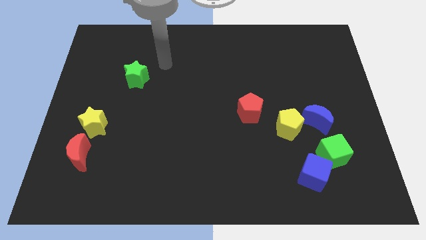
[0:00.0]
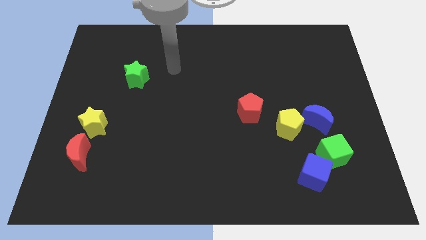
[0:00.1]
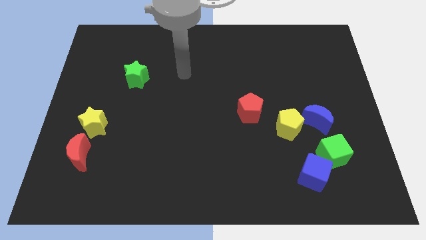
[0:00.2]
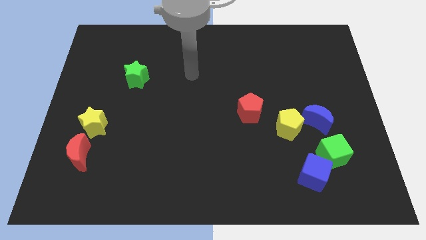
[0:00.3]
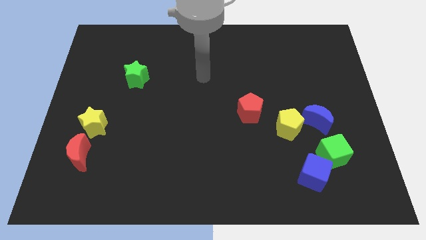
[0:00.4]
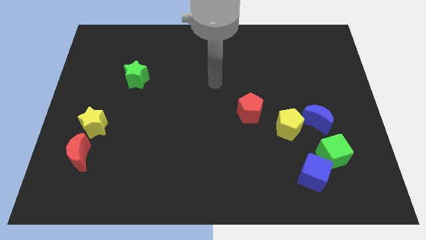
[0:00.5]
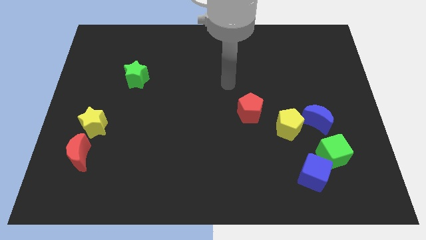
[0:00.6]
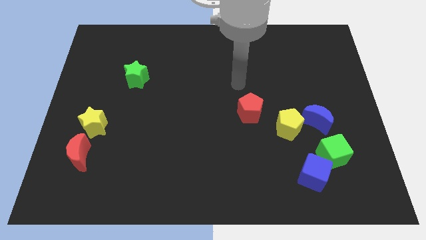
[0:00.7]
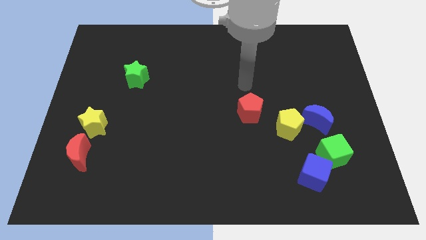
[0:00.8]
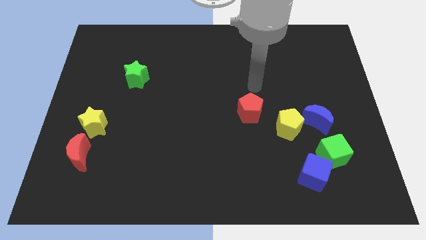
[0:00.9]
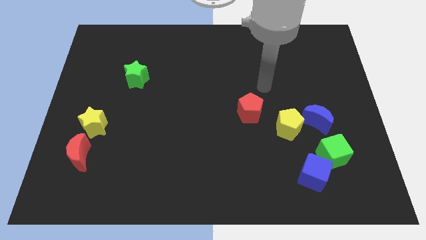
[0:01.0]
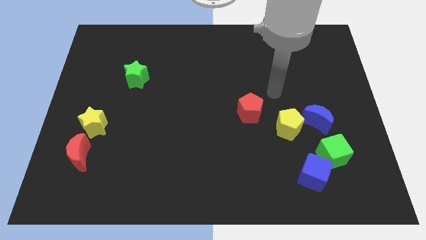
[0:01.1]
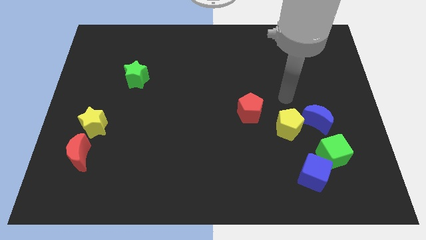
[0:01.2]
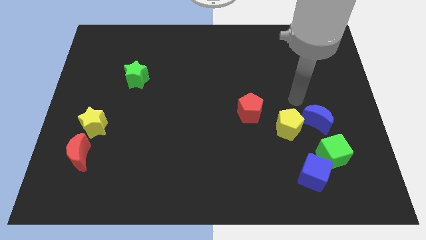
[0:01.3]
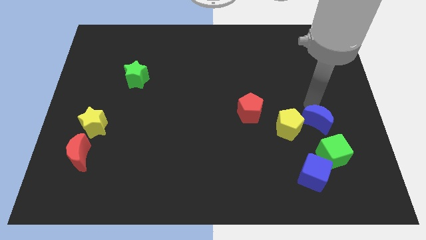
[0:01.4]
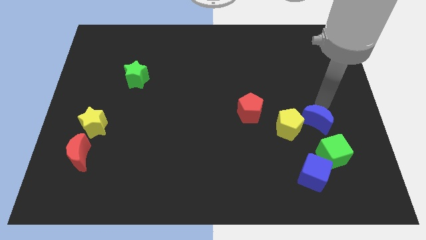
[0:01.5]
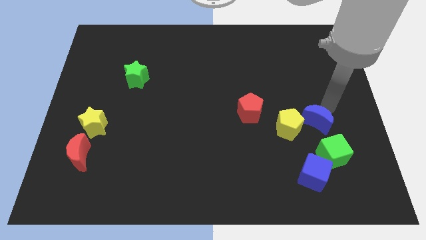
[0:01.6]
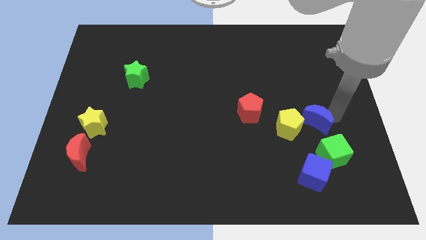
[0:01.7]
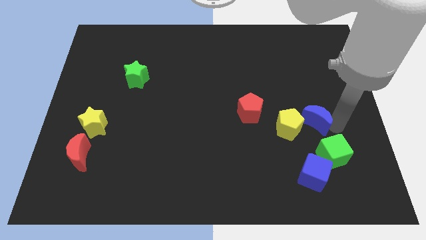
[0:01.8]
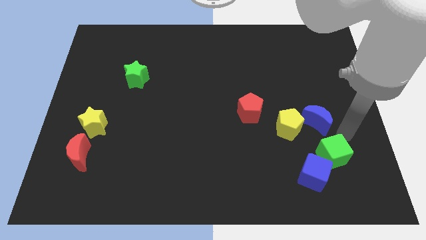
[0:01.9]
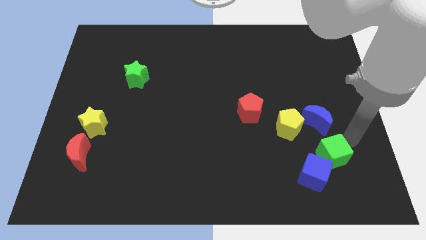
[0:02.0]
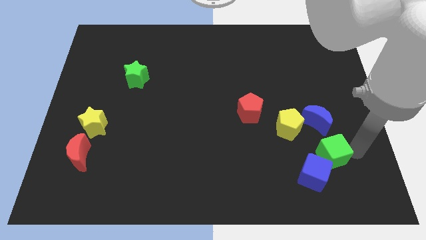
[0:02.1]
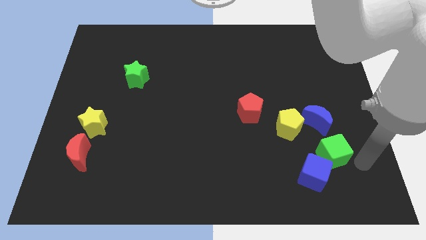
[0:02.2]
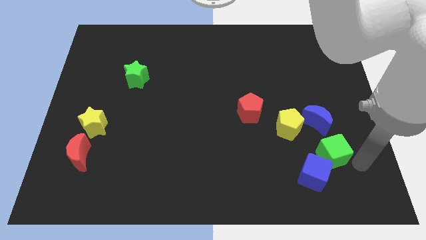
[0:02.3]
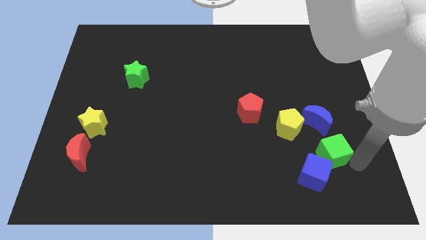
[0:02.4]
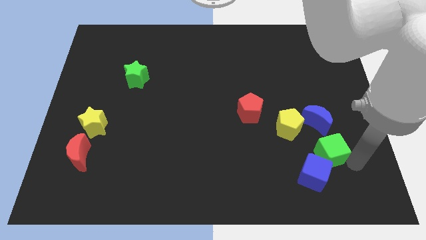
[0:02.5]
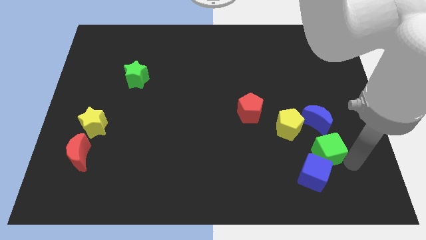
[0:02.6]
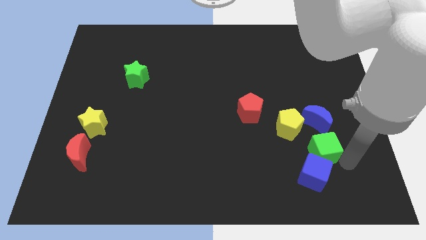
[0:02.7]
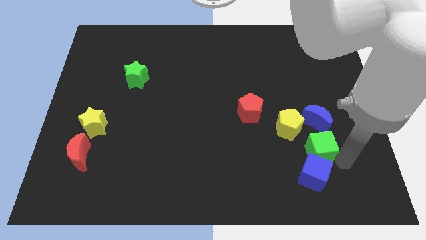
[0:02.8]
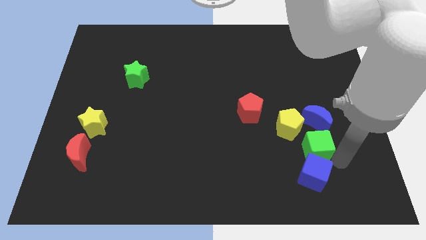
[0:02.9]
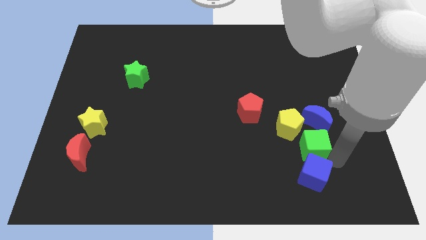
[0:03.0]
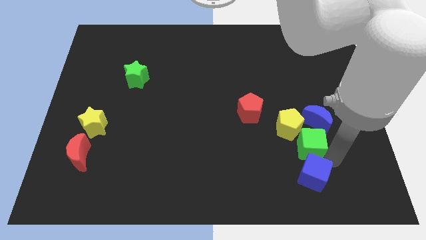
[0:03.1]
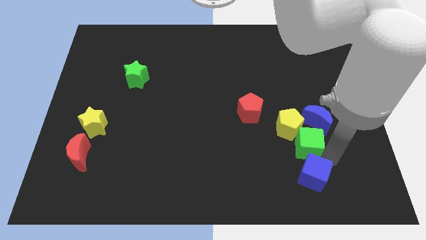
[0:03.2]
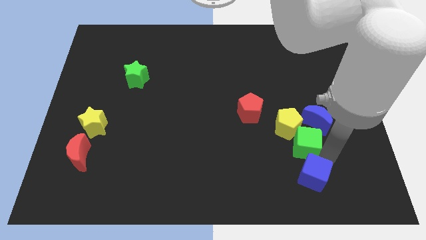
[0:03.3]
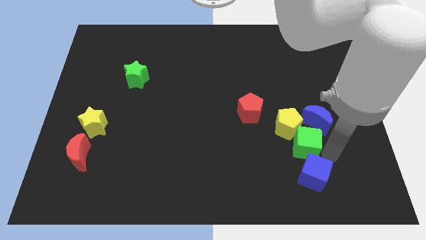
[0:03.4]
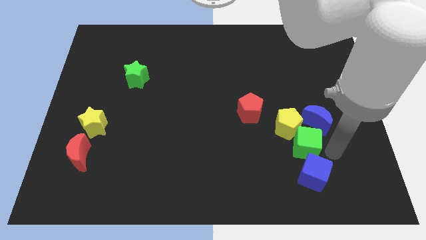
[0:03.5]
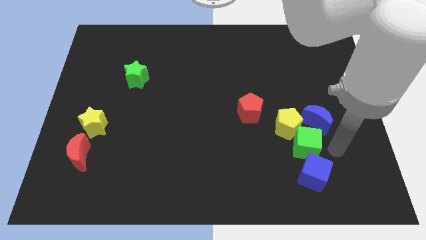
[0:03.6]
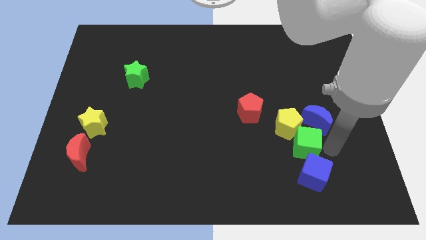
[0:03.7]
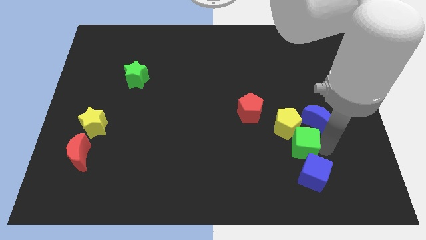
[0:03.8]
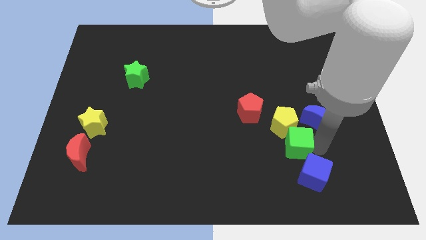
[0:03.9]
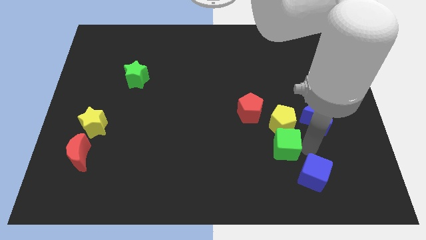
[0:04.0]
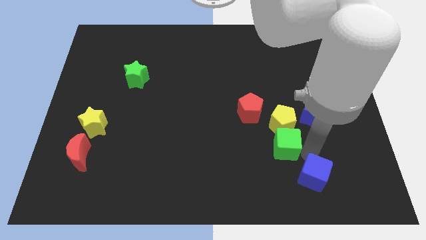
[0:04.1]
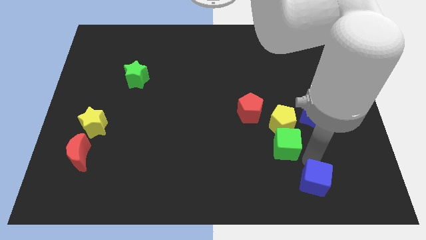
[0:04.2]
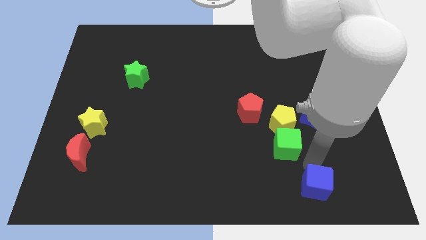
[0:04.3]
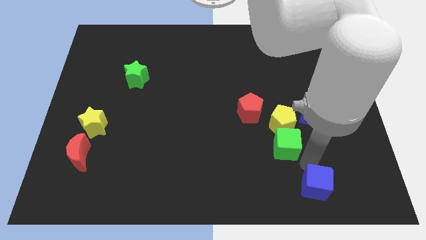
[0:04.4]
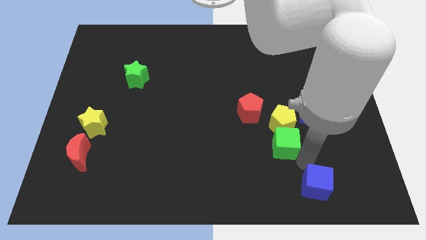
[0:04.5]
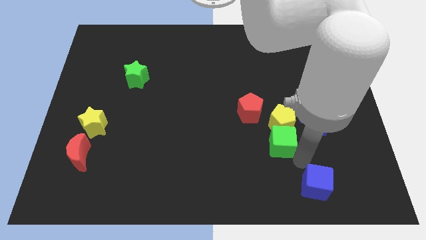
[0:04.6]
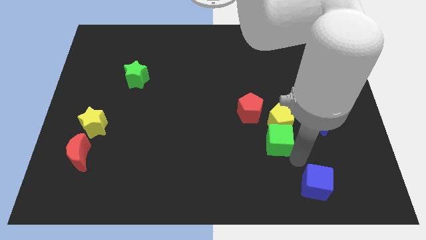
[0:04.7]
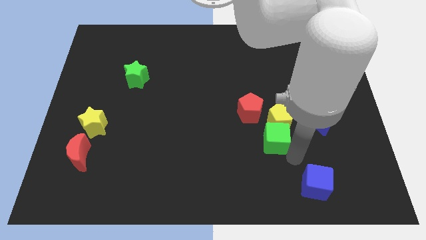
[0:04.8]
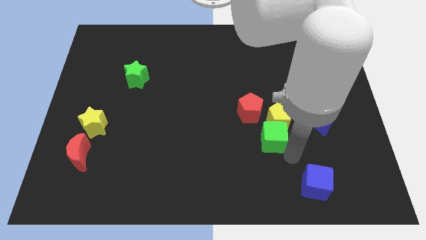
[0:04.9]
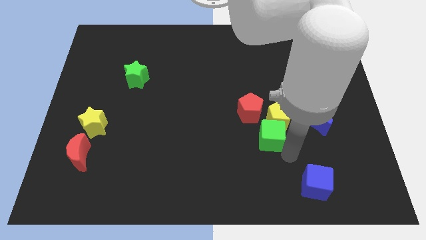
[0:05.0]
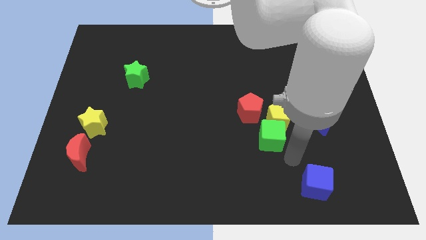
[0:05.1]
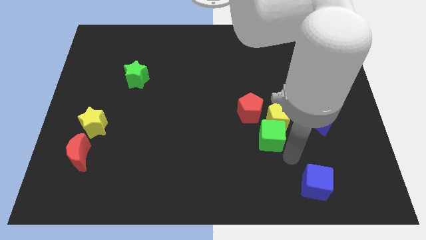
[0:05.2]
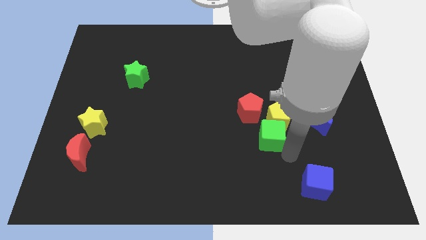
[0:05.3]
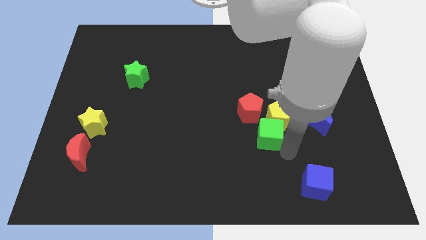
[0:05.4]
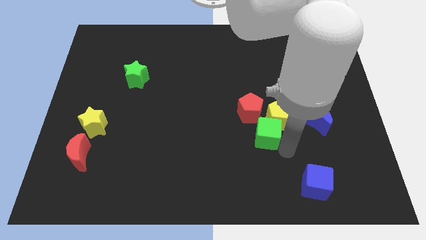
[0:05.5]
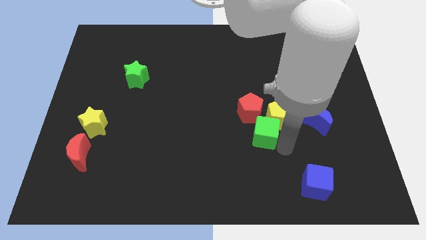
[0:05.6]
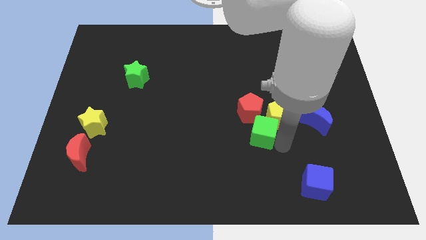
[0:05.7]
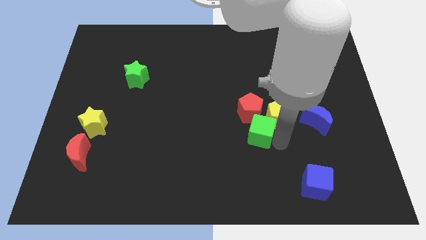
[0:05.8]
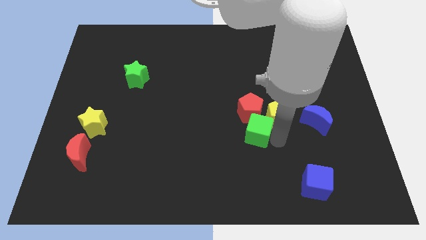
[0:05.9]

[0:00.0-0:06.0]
push the green cube towards the red pentagon

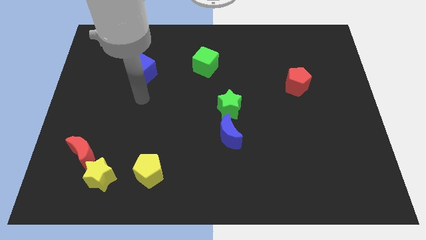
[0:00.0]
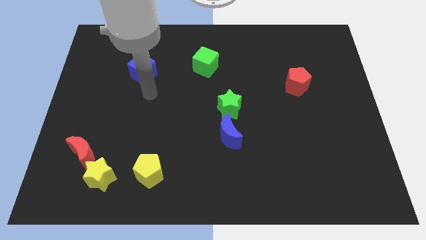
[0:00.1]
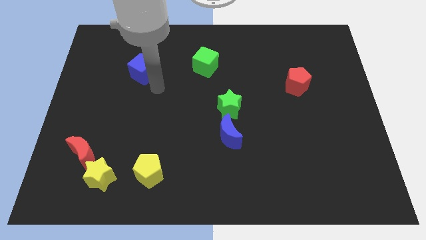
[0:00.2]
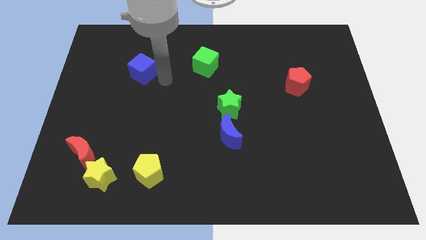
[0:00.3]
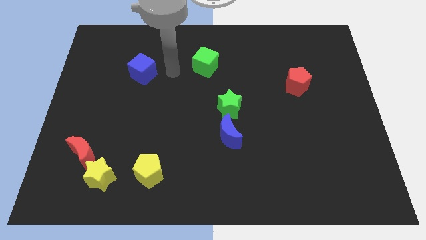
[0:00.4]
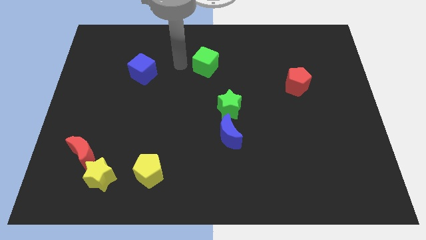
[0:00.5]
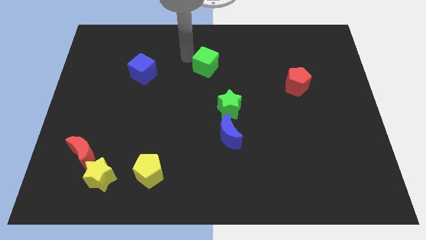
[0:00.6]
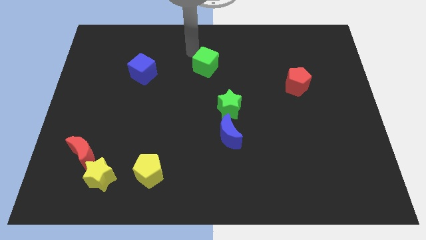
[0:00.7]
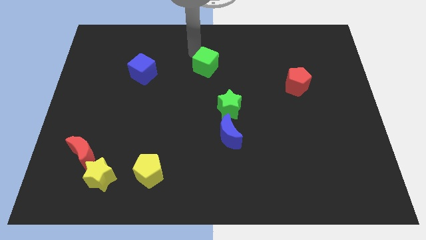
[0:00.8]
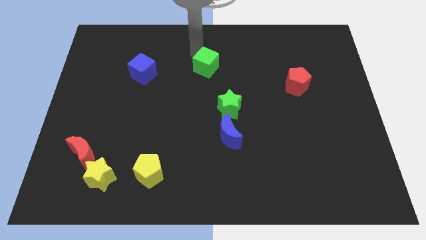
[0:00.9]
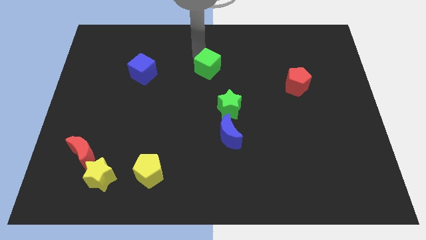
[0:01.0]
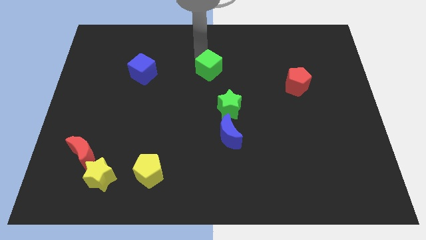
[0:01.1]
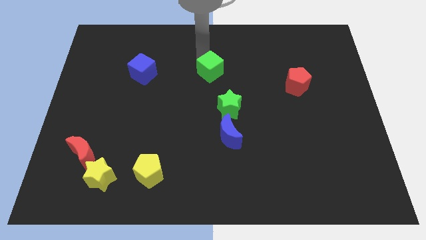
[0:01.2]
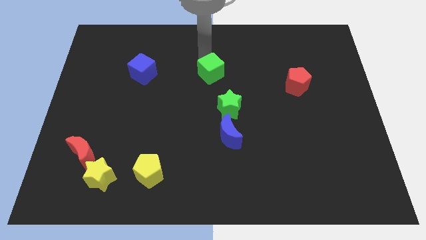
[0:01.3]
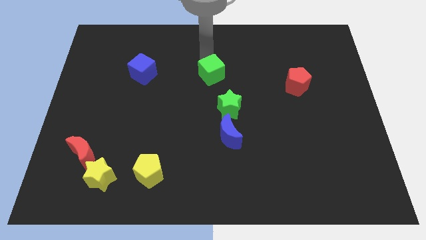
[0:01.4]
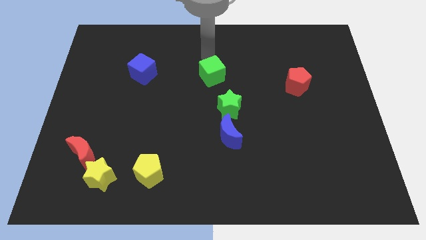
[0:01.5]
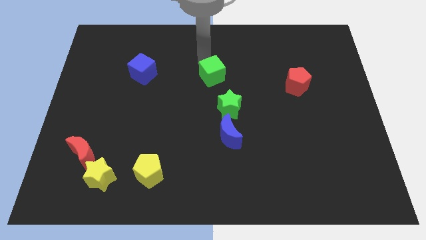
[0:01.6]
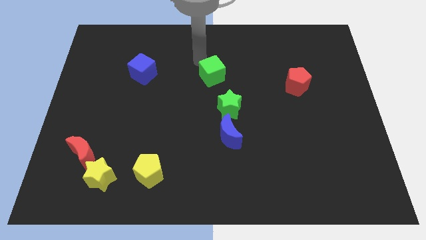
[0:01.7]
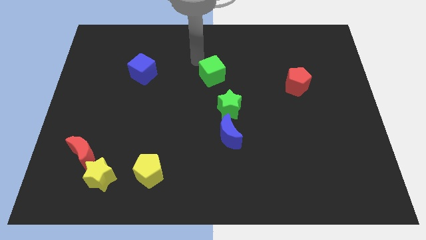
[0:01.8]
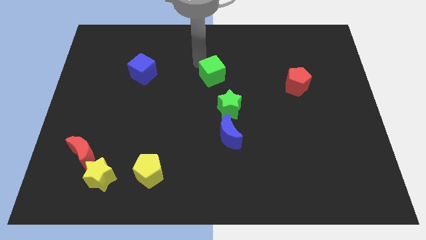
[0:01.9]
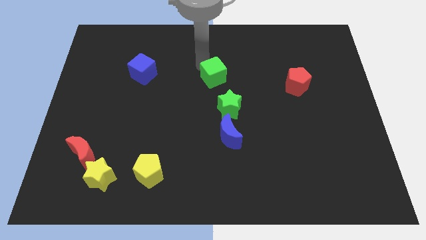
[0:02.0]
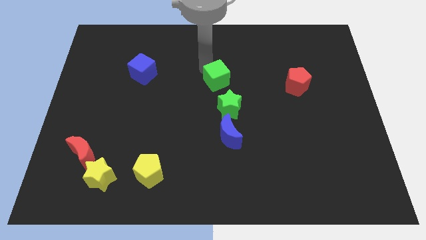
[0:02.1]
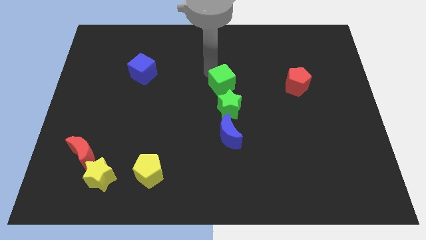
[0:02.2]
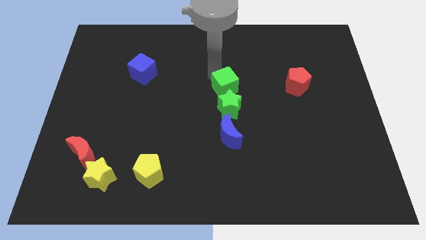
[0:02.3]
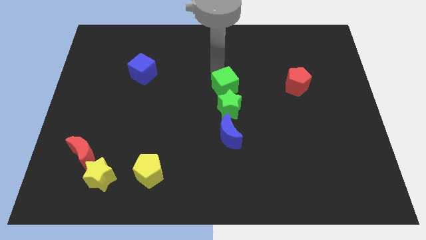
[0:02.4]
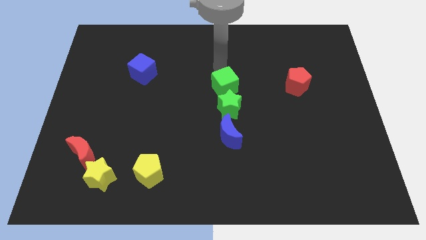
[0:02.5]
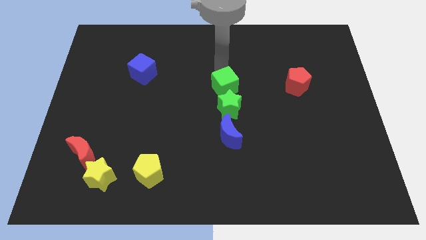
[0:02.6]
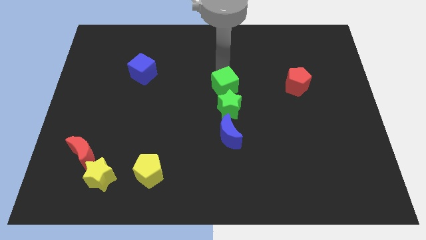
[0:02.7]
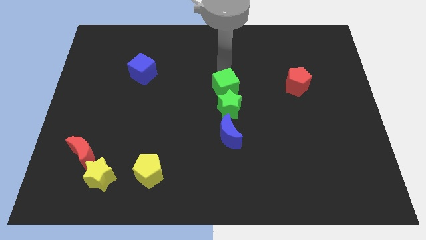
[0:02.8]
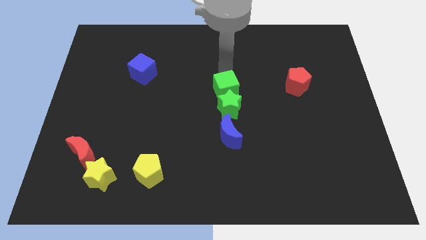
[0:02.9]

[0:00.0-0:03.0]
slide the green cube towards the green star
